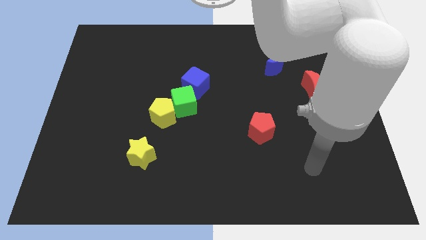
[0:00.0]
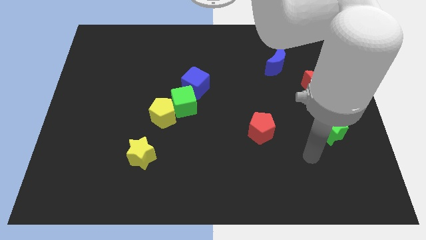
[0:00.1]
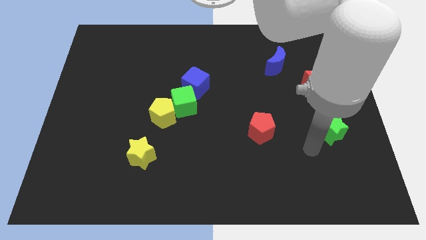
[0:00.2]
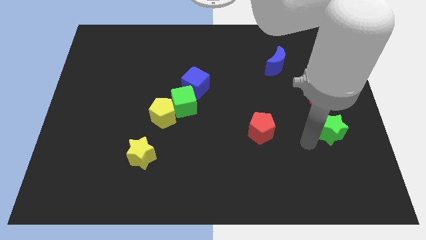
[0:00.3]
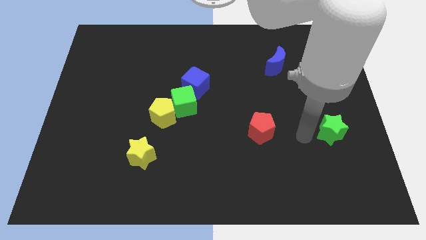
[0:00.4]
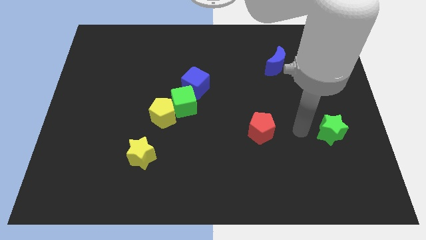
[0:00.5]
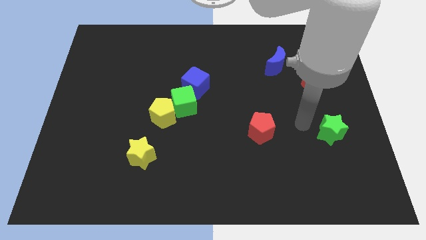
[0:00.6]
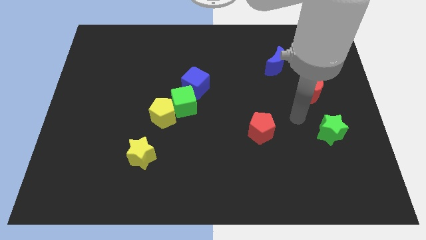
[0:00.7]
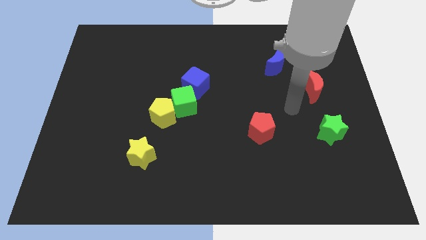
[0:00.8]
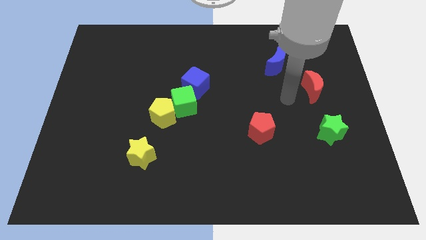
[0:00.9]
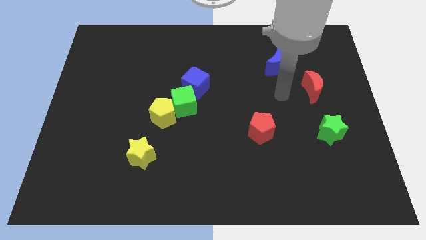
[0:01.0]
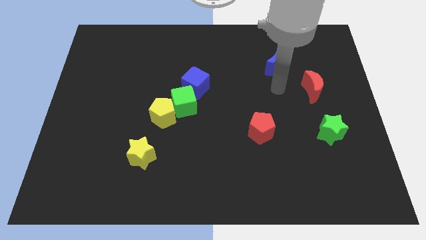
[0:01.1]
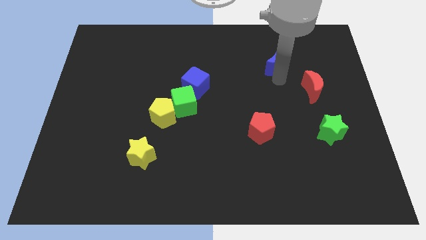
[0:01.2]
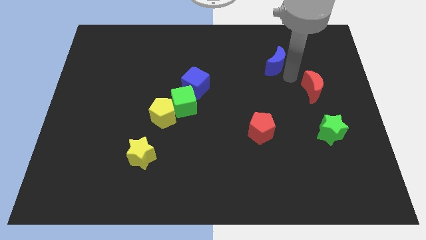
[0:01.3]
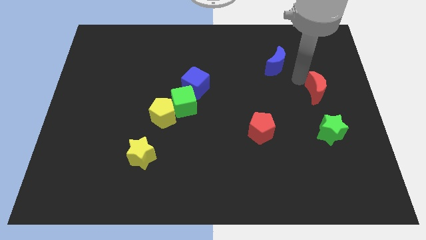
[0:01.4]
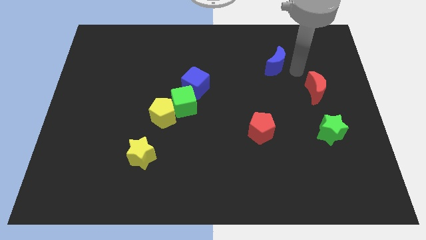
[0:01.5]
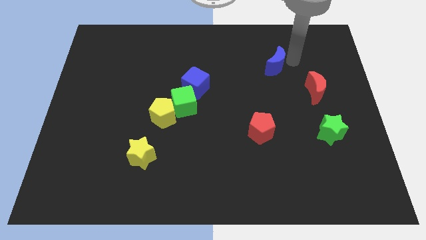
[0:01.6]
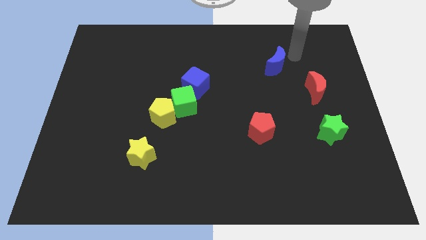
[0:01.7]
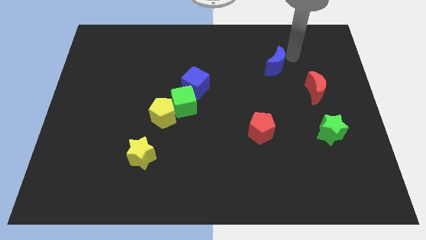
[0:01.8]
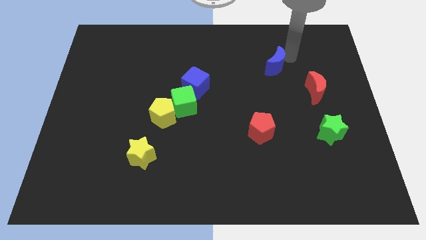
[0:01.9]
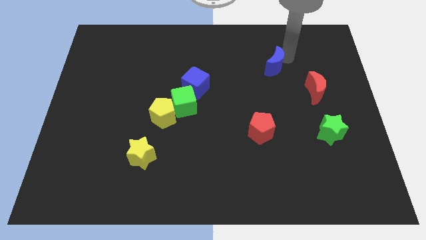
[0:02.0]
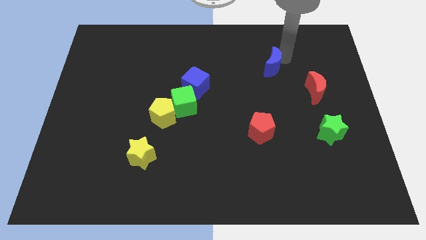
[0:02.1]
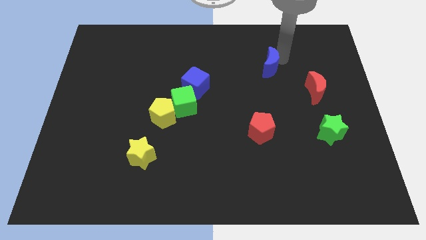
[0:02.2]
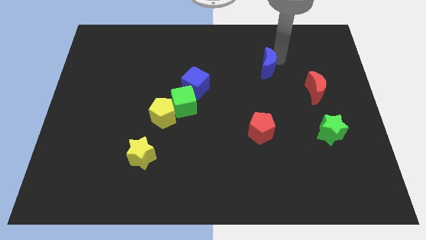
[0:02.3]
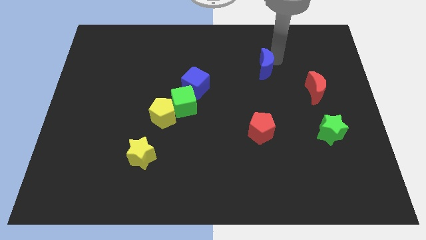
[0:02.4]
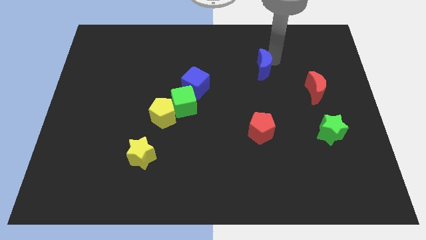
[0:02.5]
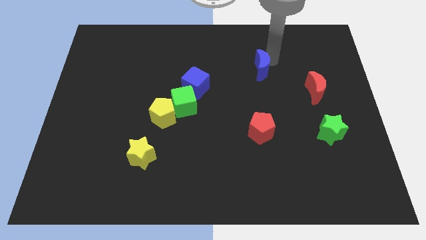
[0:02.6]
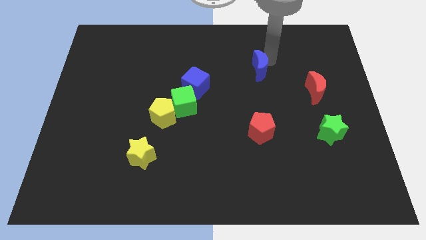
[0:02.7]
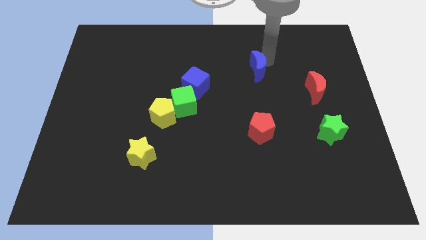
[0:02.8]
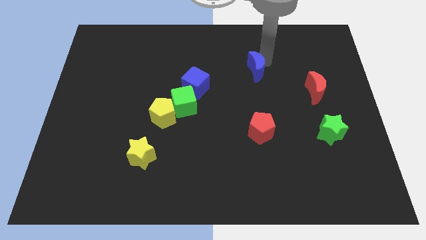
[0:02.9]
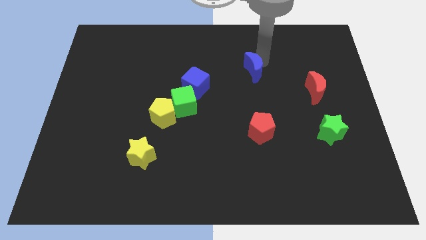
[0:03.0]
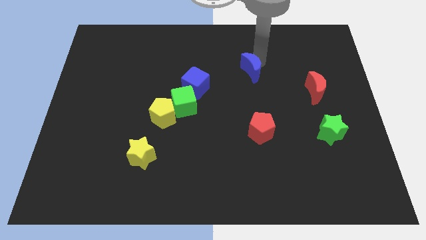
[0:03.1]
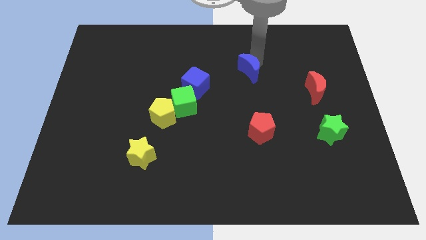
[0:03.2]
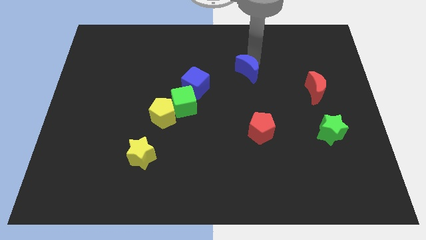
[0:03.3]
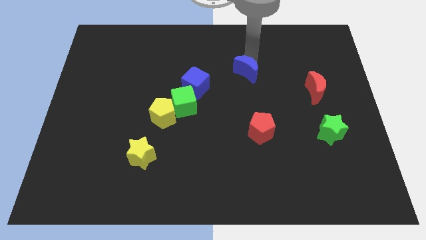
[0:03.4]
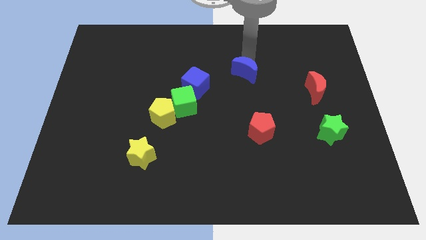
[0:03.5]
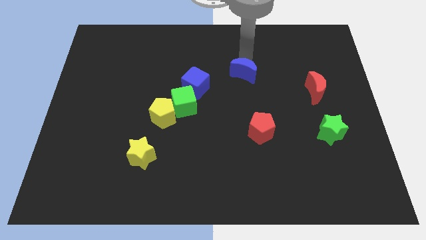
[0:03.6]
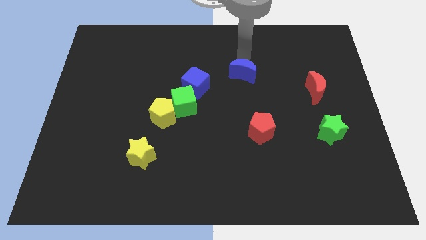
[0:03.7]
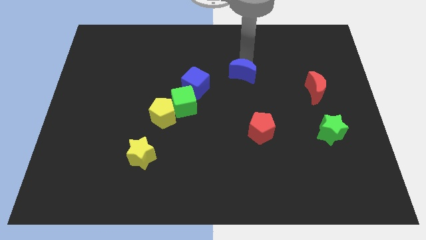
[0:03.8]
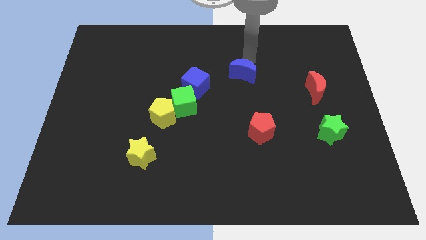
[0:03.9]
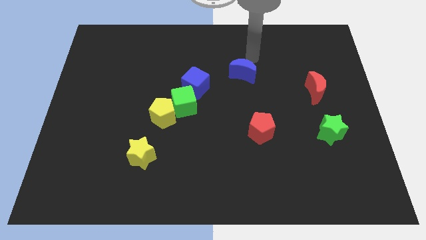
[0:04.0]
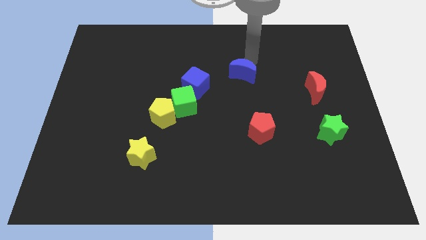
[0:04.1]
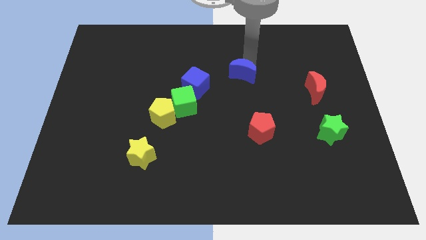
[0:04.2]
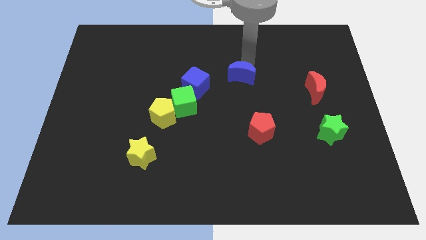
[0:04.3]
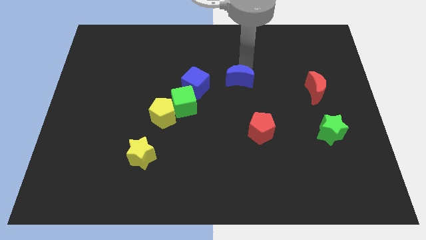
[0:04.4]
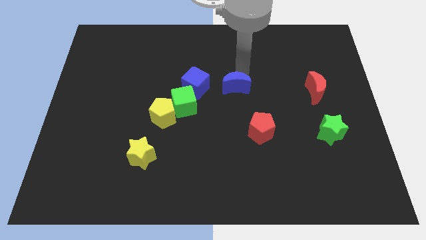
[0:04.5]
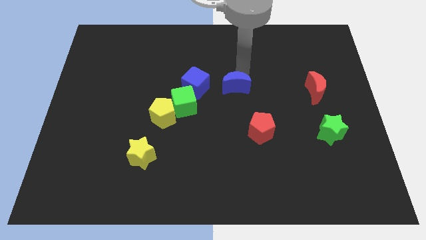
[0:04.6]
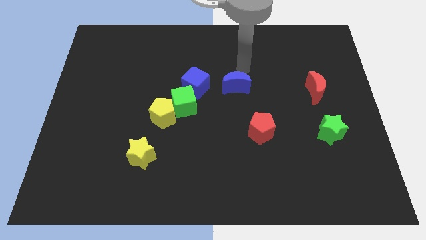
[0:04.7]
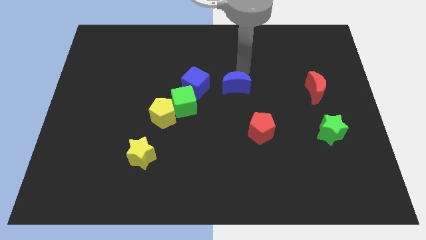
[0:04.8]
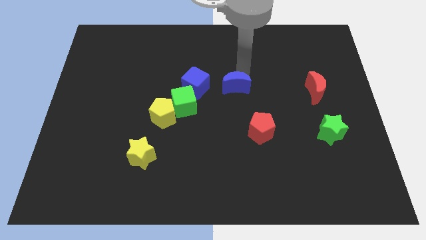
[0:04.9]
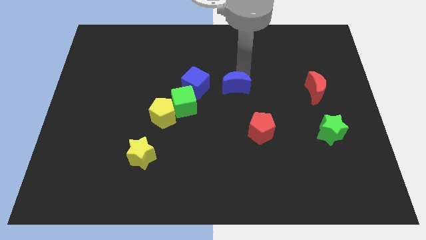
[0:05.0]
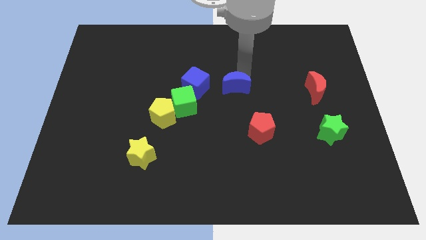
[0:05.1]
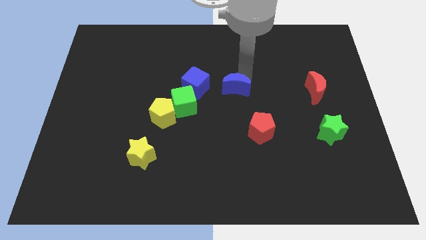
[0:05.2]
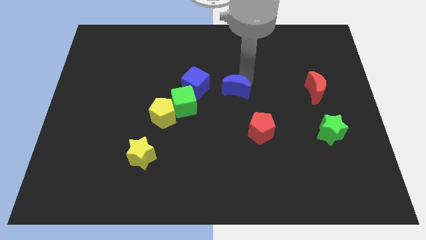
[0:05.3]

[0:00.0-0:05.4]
move the blue moon just right of the green cube

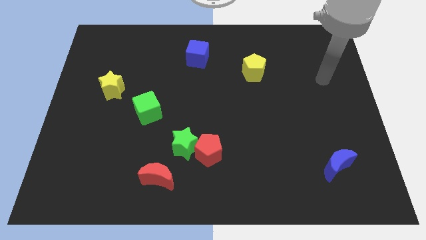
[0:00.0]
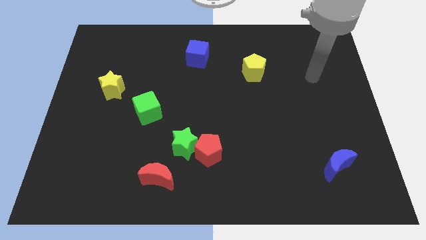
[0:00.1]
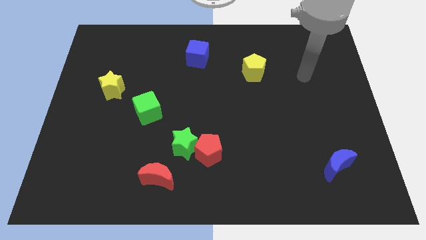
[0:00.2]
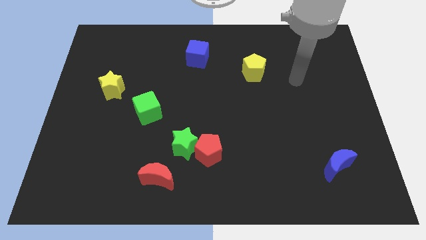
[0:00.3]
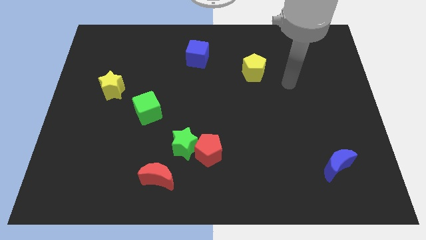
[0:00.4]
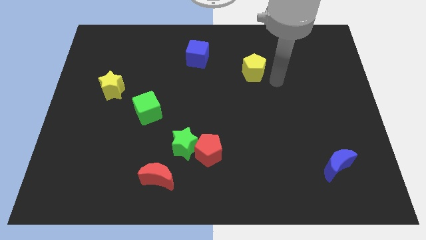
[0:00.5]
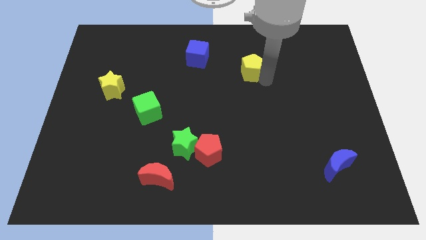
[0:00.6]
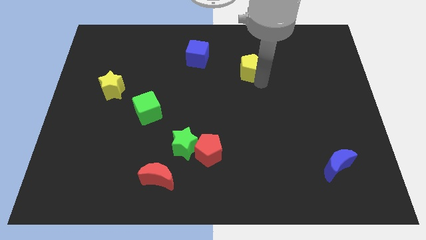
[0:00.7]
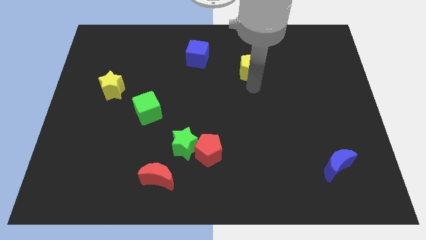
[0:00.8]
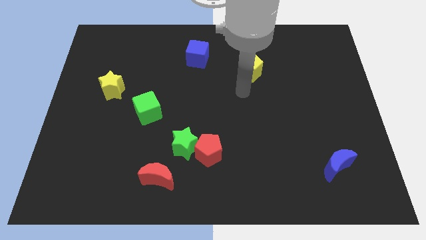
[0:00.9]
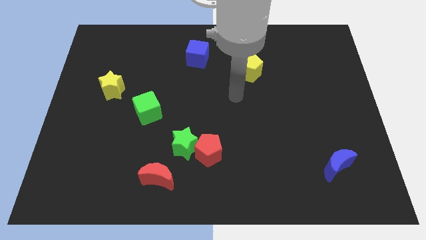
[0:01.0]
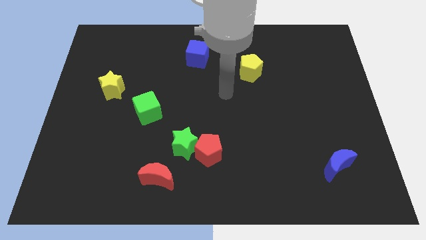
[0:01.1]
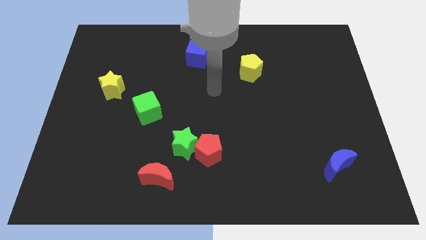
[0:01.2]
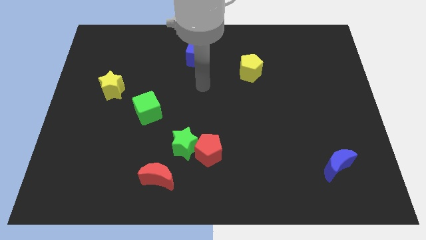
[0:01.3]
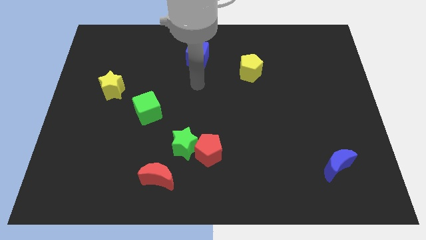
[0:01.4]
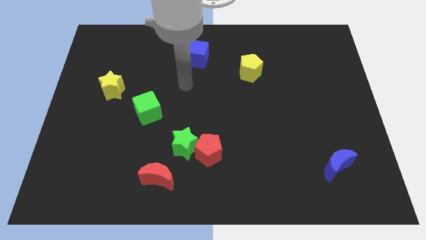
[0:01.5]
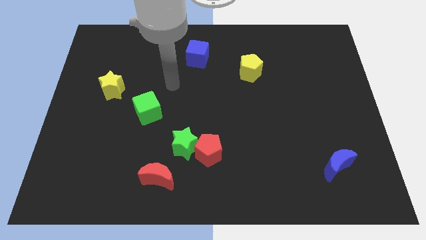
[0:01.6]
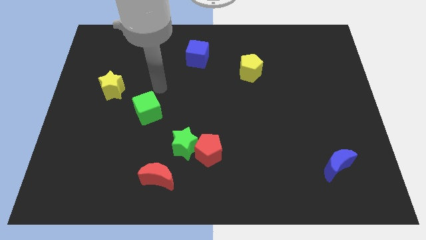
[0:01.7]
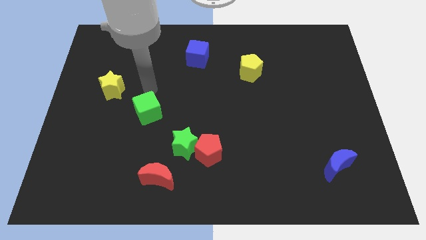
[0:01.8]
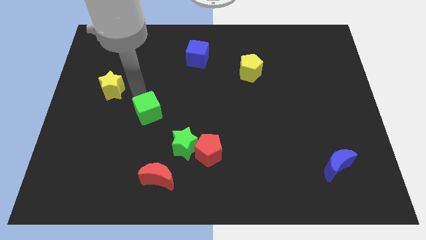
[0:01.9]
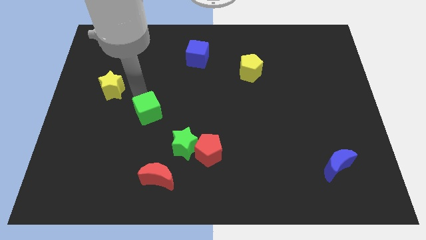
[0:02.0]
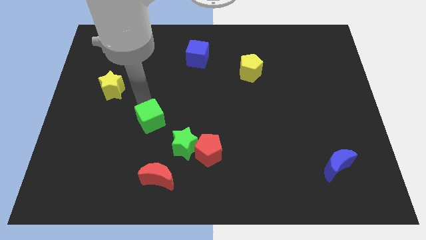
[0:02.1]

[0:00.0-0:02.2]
slide the green cube to the top of the red moon
